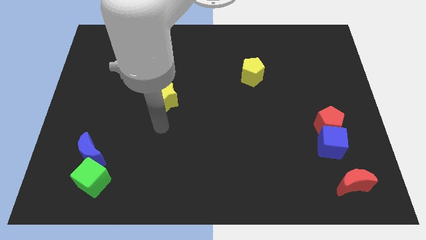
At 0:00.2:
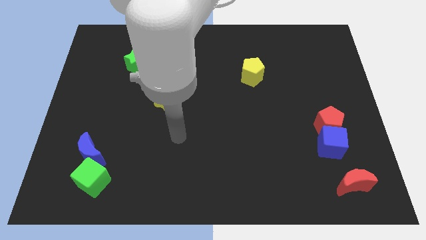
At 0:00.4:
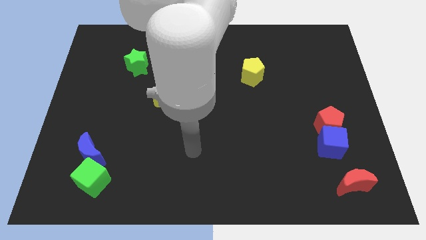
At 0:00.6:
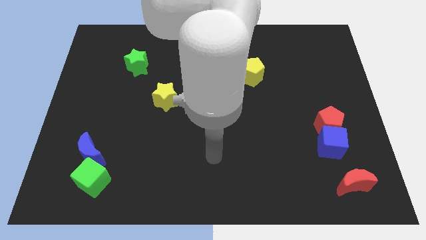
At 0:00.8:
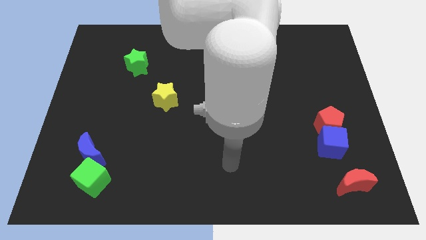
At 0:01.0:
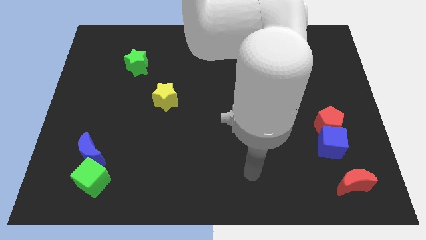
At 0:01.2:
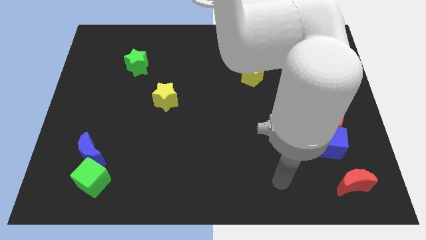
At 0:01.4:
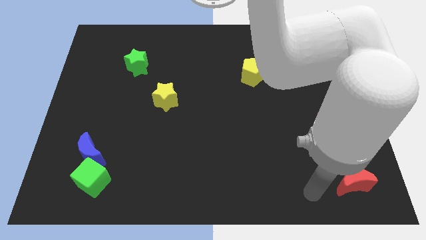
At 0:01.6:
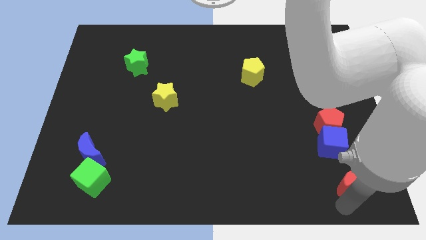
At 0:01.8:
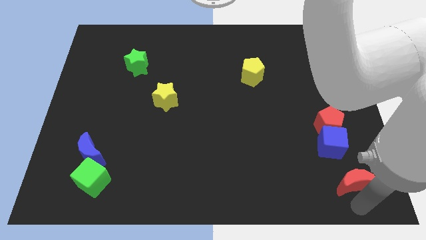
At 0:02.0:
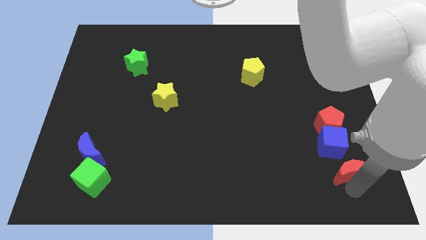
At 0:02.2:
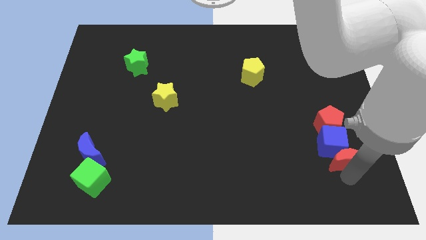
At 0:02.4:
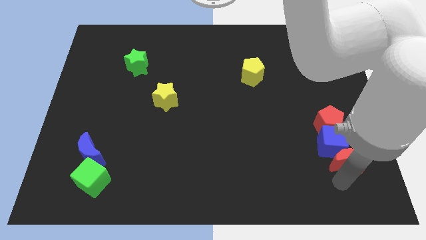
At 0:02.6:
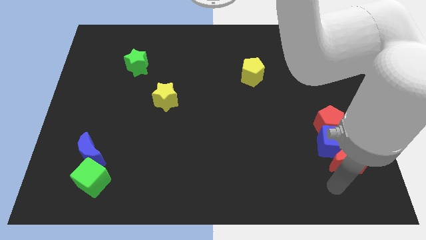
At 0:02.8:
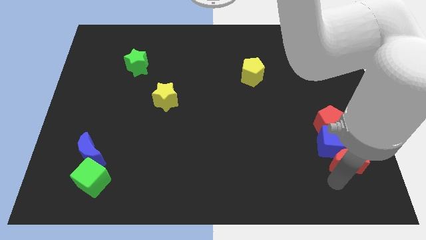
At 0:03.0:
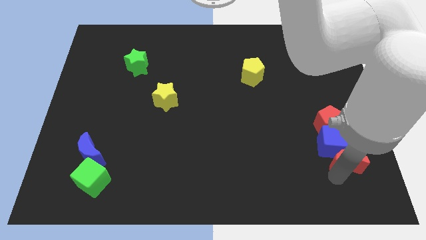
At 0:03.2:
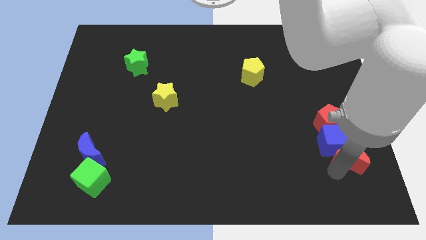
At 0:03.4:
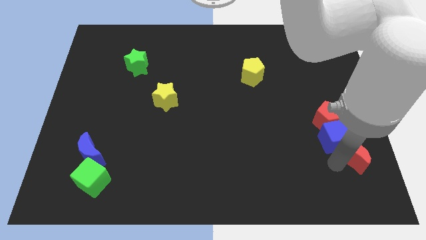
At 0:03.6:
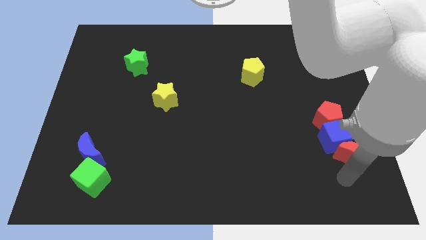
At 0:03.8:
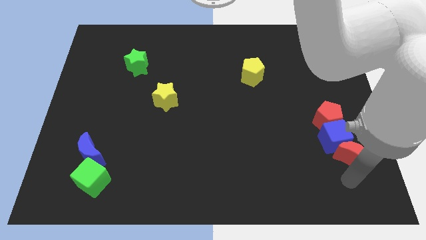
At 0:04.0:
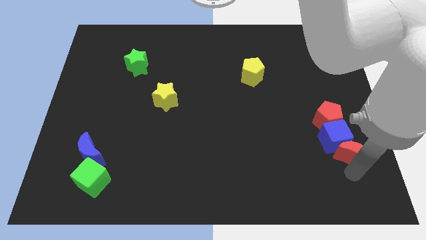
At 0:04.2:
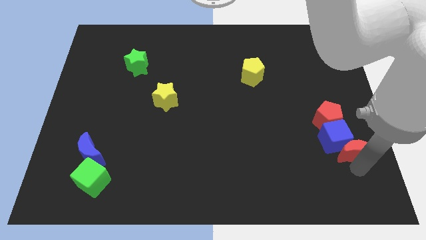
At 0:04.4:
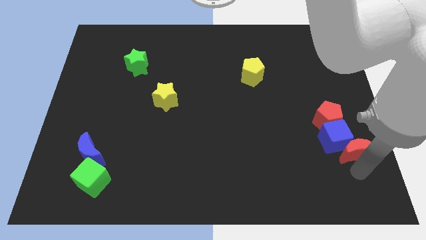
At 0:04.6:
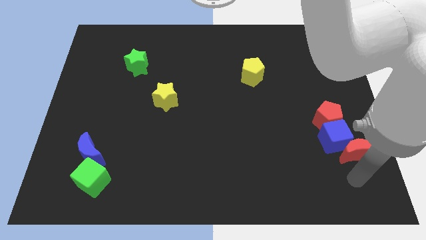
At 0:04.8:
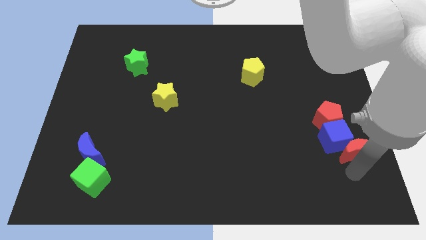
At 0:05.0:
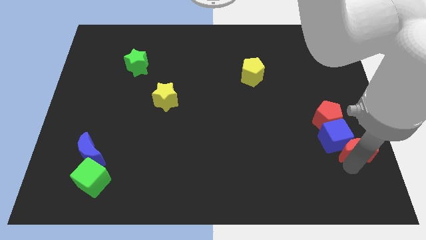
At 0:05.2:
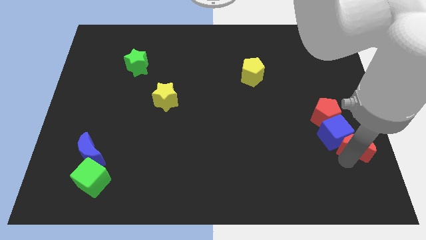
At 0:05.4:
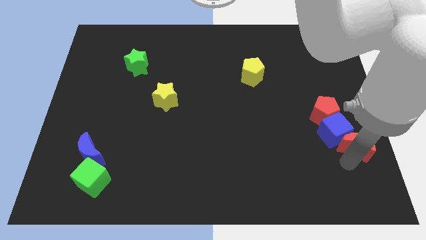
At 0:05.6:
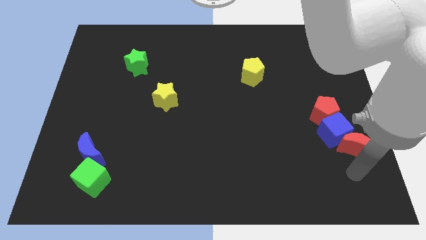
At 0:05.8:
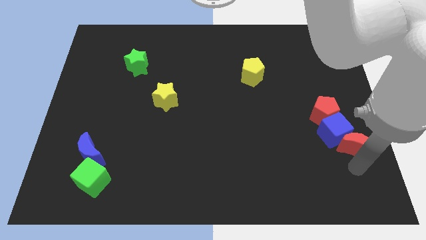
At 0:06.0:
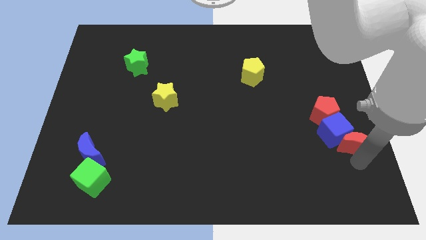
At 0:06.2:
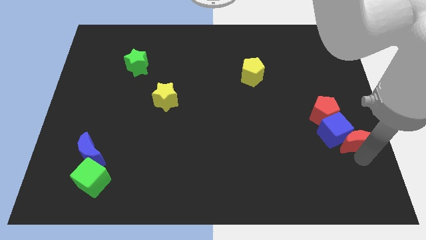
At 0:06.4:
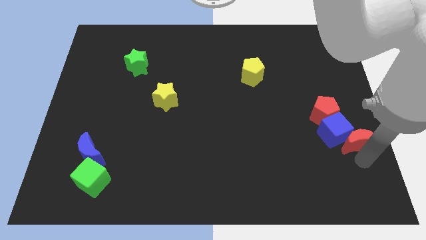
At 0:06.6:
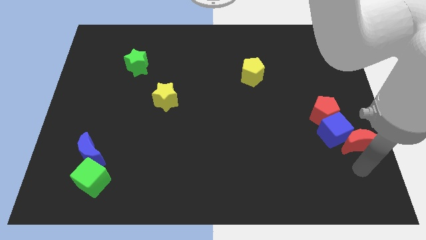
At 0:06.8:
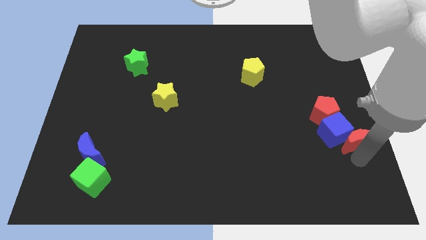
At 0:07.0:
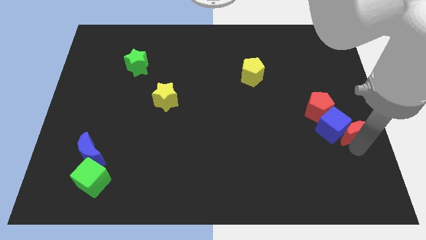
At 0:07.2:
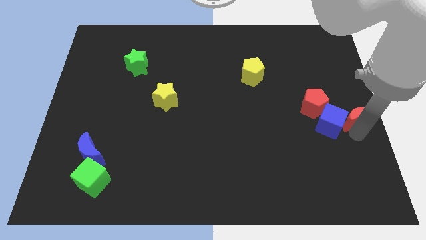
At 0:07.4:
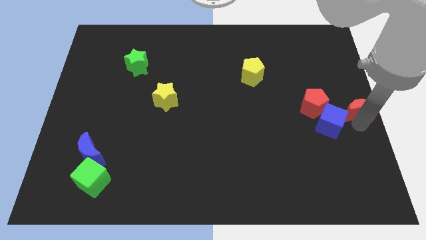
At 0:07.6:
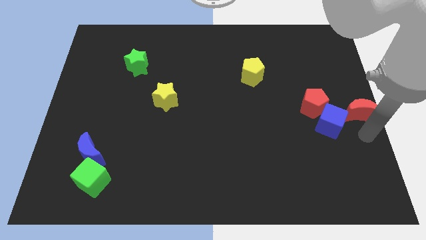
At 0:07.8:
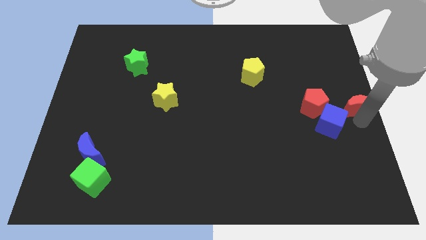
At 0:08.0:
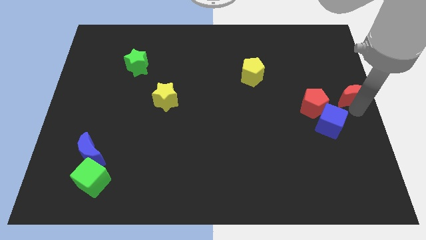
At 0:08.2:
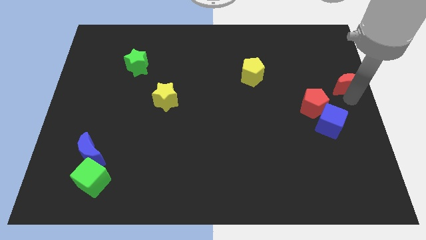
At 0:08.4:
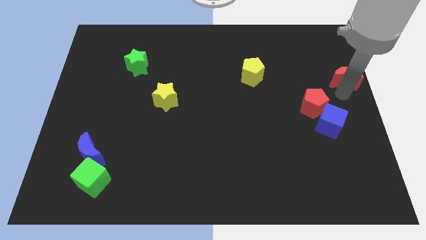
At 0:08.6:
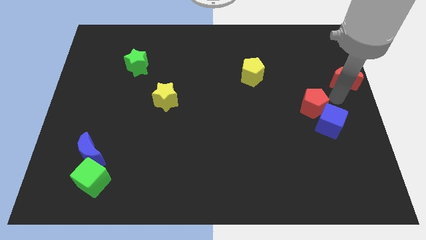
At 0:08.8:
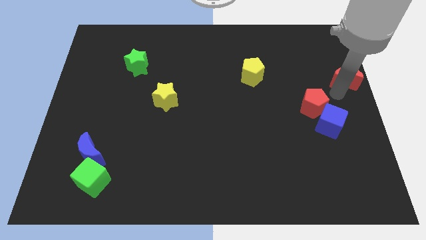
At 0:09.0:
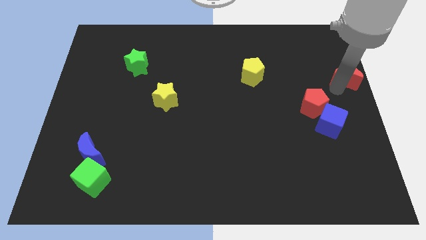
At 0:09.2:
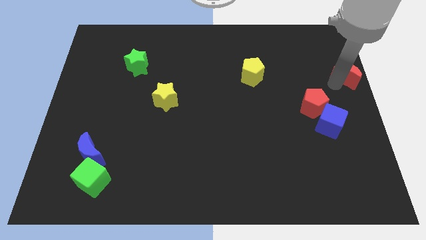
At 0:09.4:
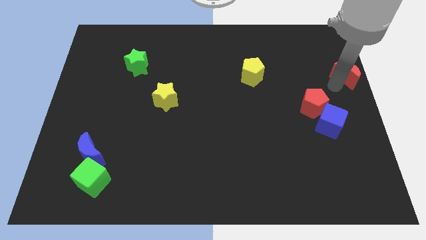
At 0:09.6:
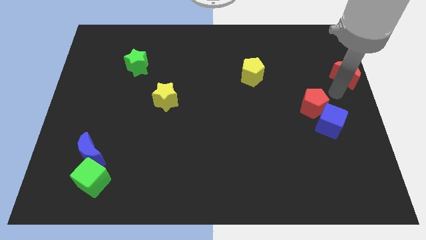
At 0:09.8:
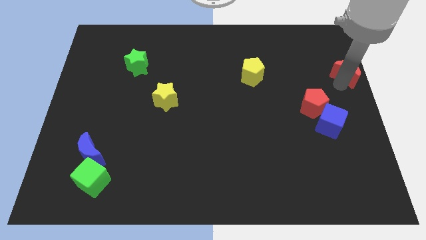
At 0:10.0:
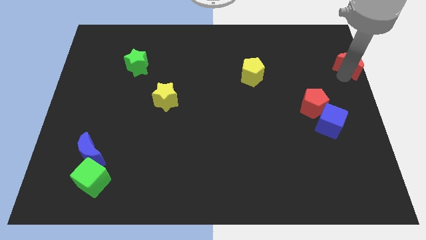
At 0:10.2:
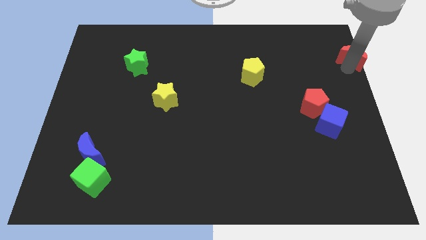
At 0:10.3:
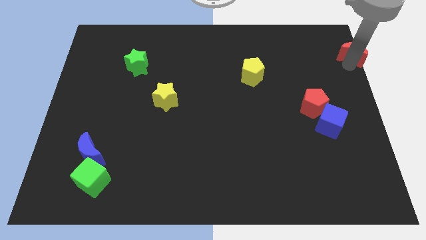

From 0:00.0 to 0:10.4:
move the red moon to the top right corner

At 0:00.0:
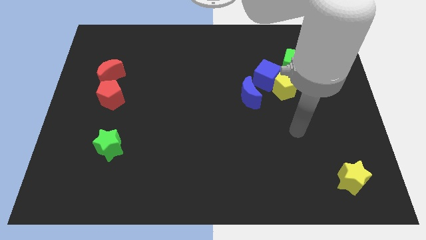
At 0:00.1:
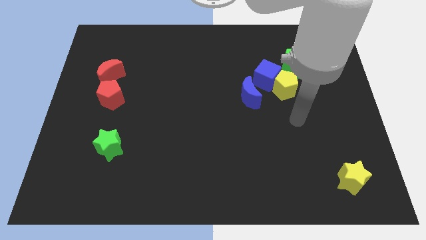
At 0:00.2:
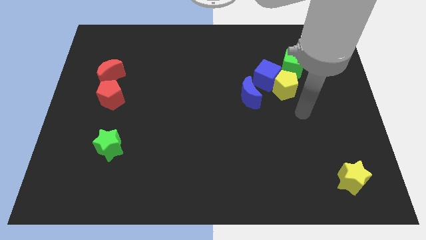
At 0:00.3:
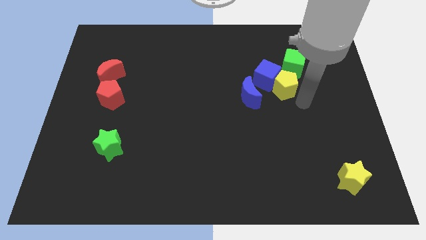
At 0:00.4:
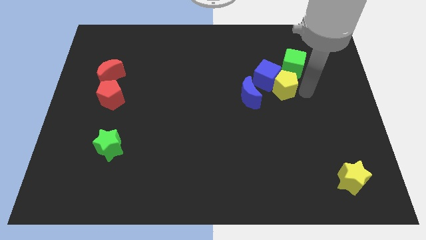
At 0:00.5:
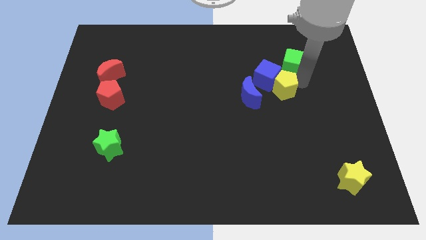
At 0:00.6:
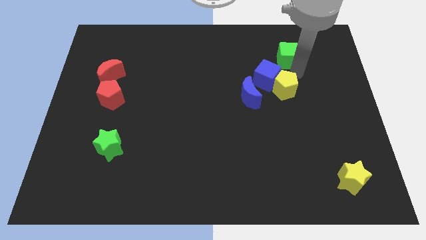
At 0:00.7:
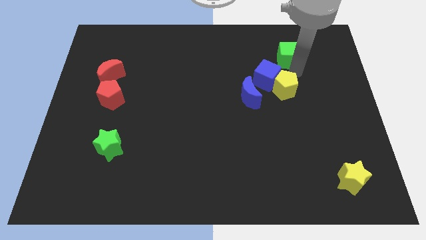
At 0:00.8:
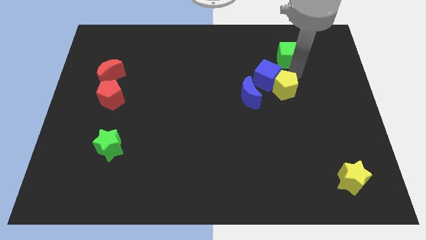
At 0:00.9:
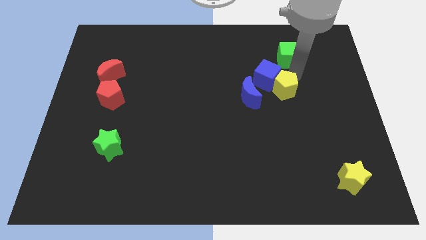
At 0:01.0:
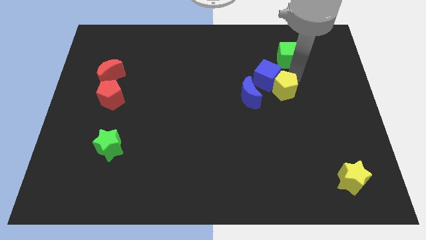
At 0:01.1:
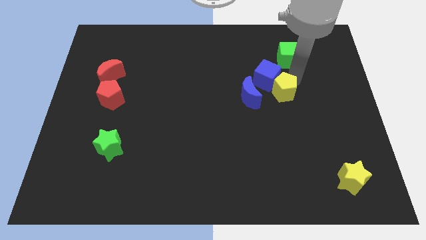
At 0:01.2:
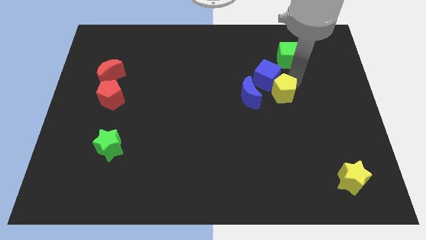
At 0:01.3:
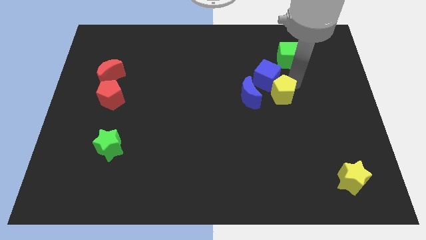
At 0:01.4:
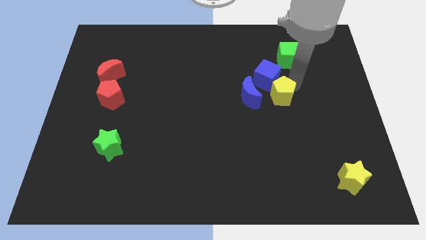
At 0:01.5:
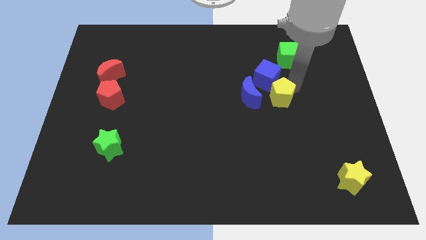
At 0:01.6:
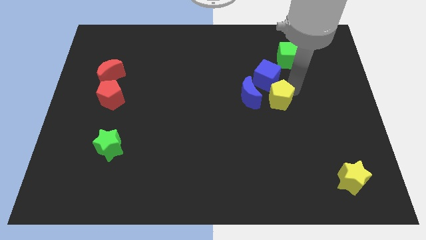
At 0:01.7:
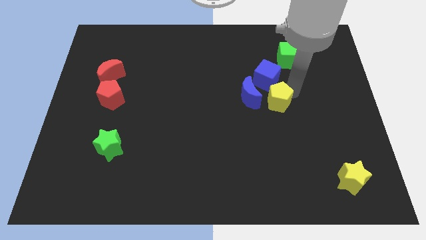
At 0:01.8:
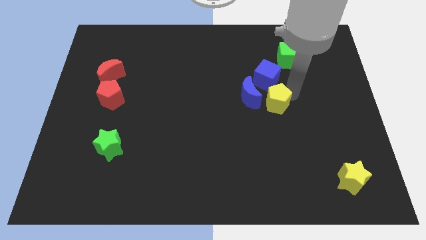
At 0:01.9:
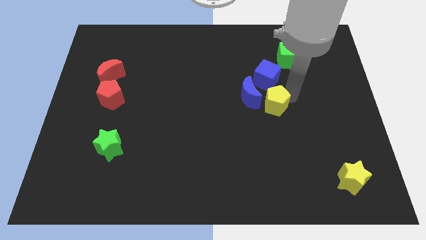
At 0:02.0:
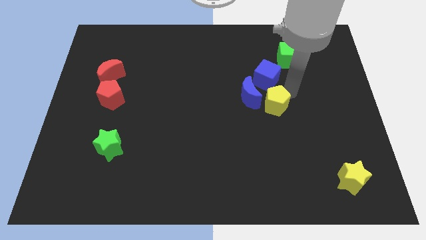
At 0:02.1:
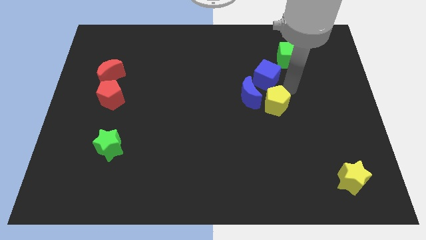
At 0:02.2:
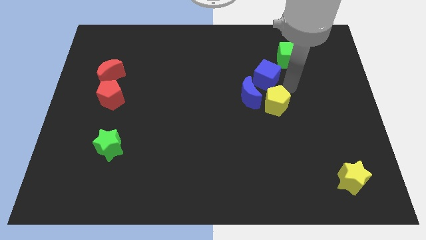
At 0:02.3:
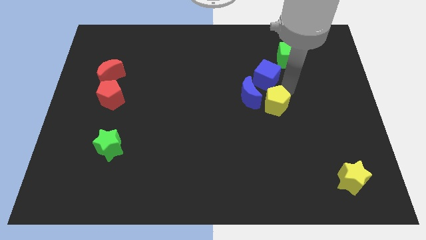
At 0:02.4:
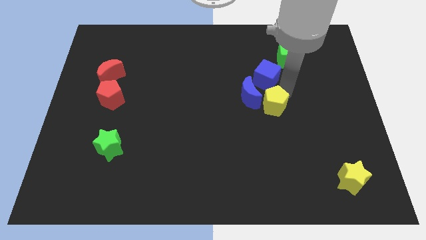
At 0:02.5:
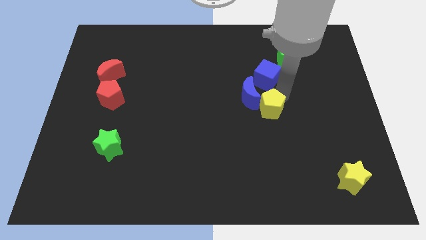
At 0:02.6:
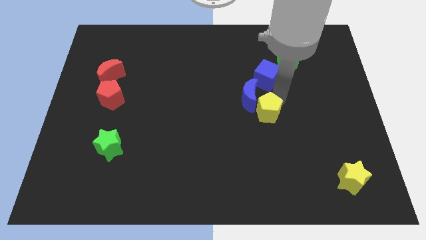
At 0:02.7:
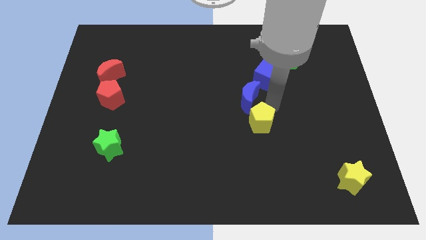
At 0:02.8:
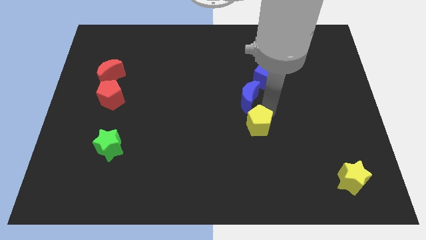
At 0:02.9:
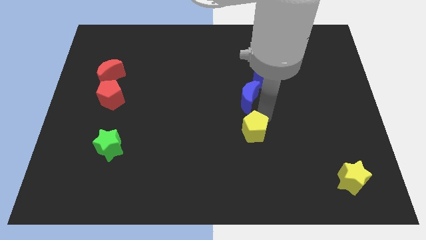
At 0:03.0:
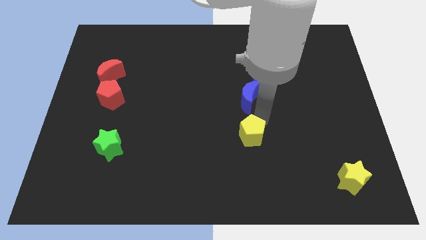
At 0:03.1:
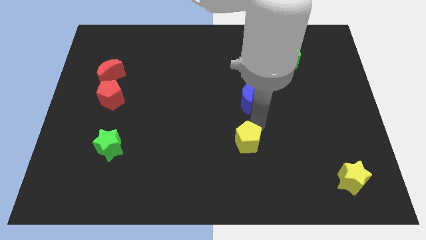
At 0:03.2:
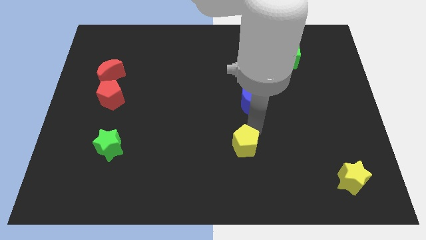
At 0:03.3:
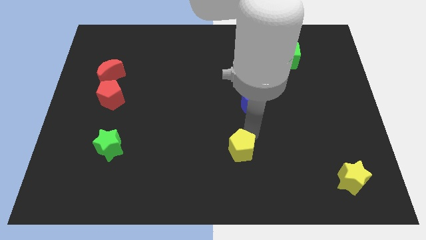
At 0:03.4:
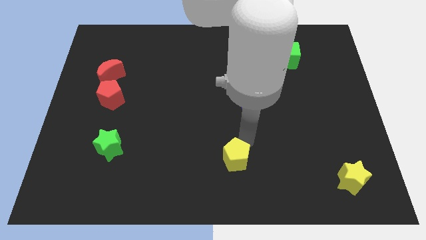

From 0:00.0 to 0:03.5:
push the yellow pentagon to the bottom
